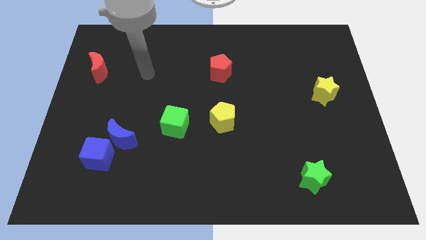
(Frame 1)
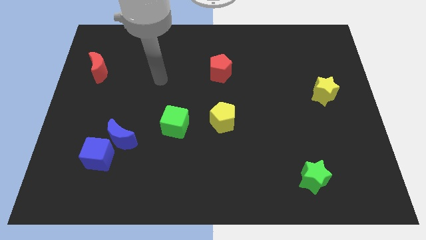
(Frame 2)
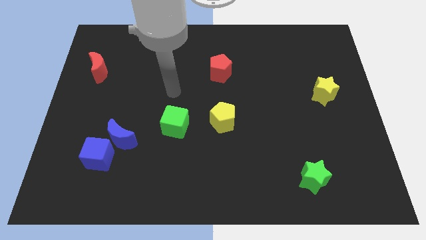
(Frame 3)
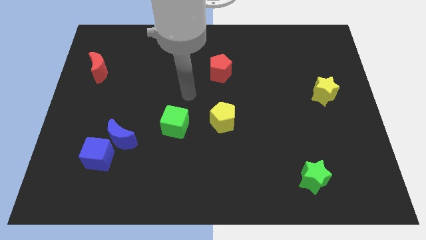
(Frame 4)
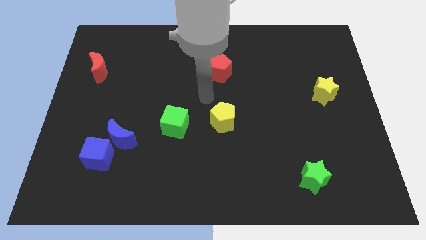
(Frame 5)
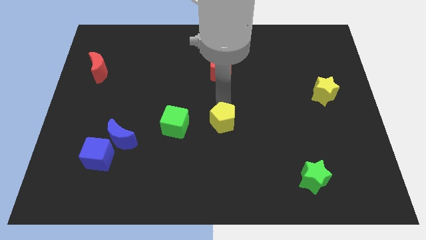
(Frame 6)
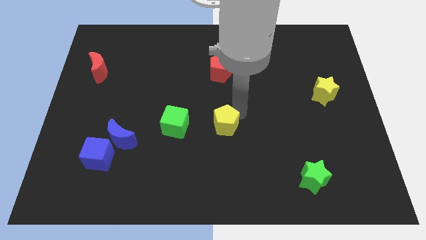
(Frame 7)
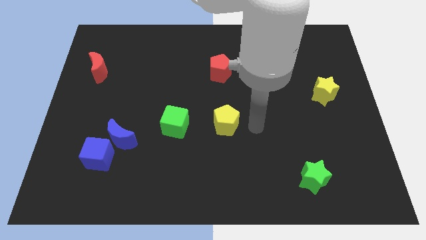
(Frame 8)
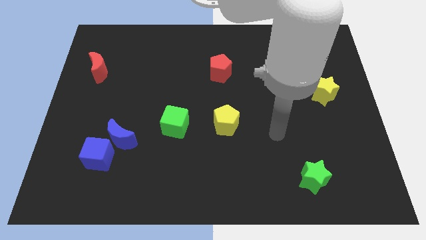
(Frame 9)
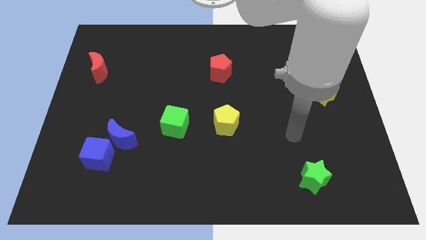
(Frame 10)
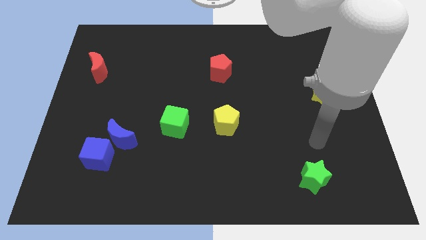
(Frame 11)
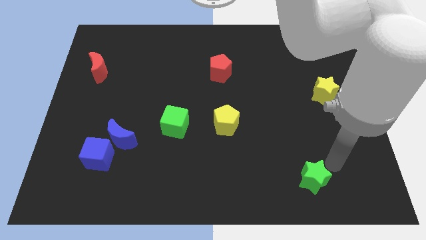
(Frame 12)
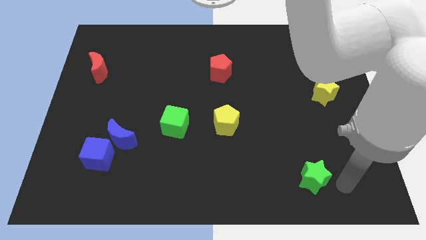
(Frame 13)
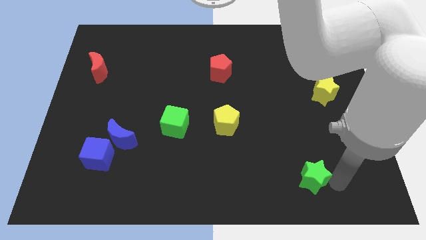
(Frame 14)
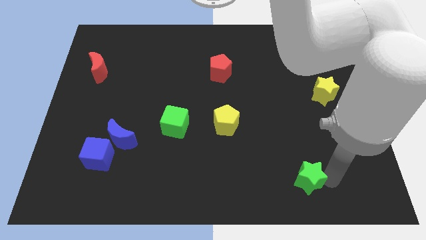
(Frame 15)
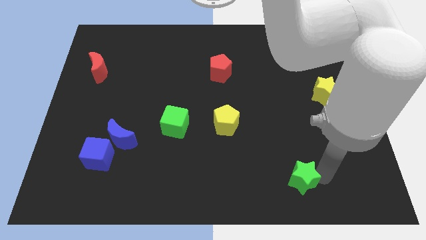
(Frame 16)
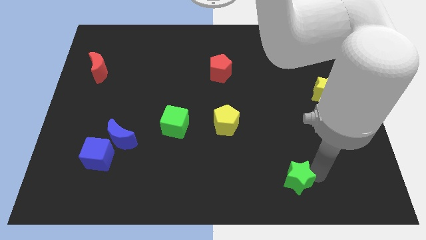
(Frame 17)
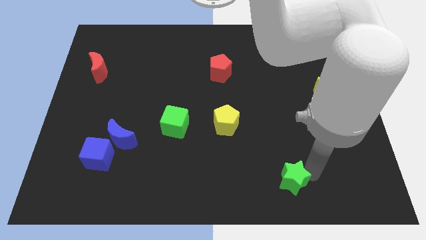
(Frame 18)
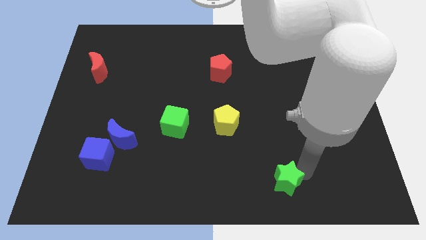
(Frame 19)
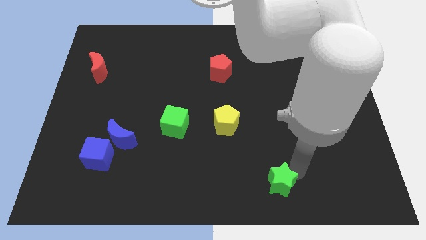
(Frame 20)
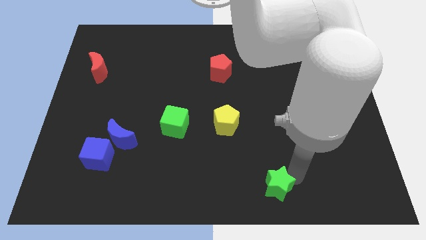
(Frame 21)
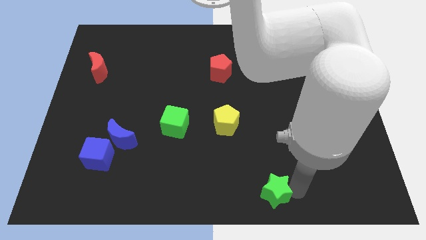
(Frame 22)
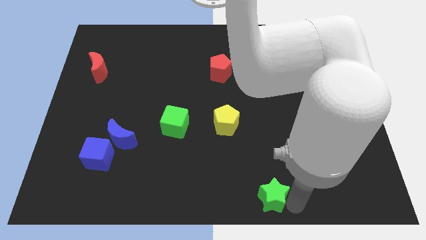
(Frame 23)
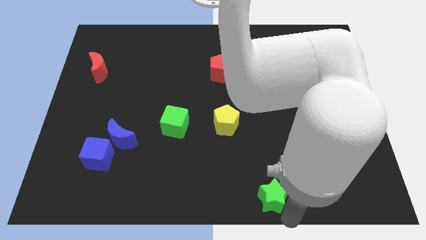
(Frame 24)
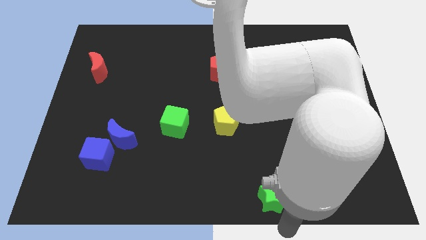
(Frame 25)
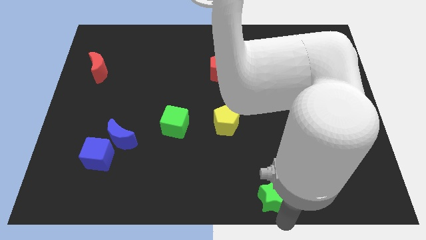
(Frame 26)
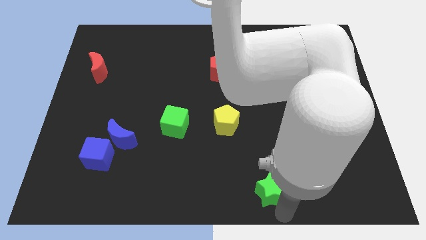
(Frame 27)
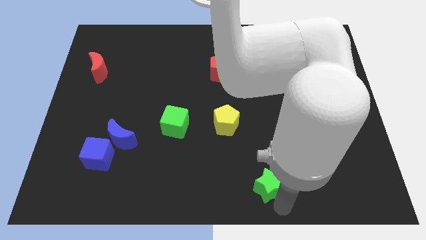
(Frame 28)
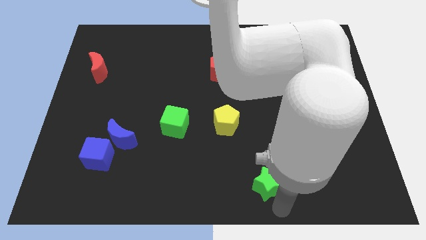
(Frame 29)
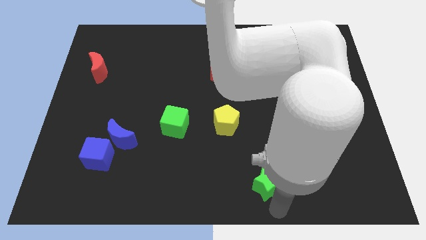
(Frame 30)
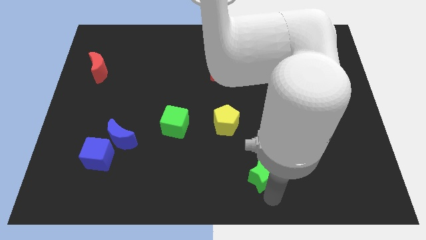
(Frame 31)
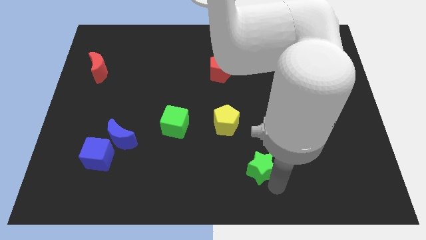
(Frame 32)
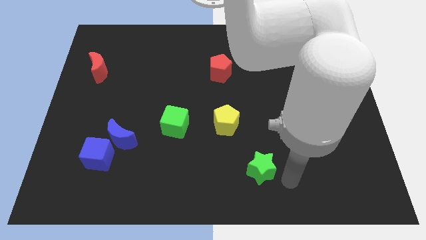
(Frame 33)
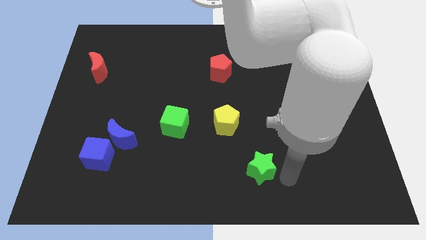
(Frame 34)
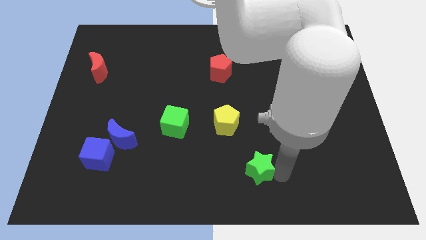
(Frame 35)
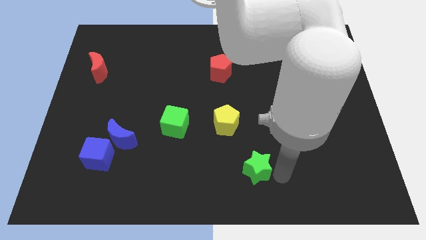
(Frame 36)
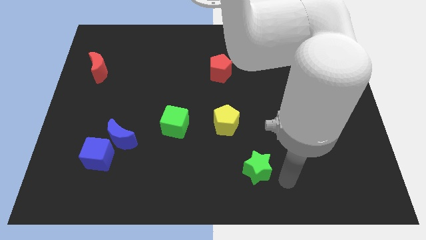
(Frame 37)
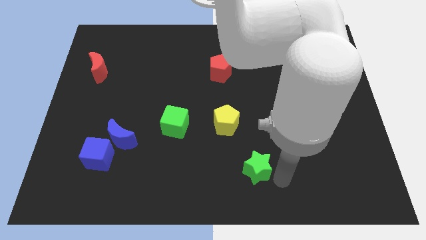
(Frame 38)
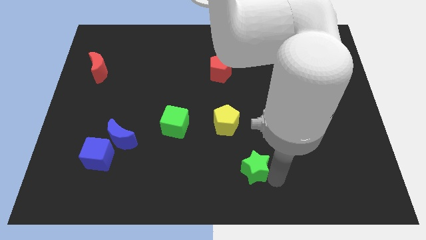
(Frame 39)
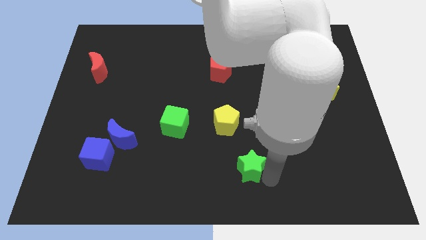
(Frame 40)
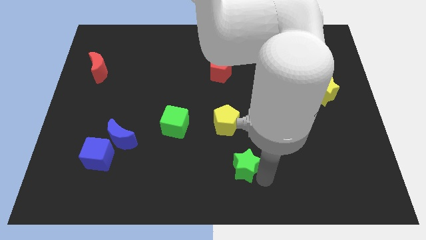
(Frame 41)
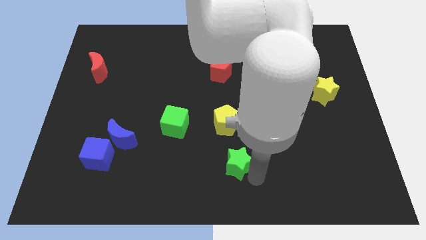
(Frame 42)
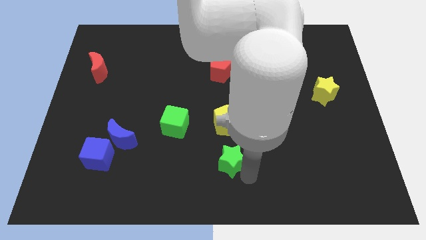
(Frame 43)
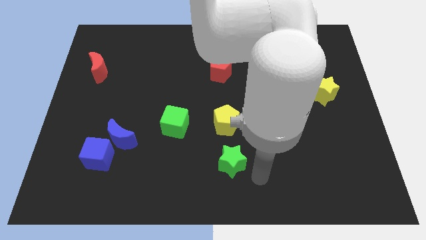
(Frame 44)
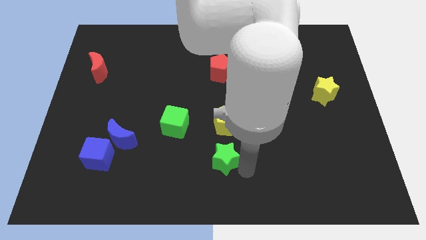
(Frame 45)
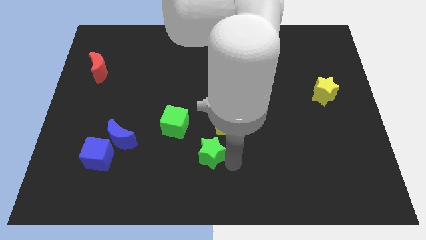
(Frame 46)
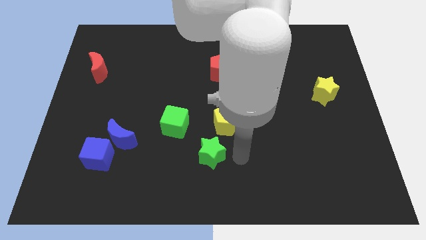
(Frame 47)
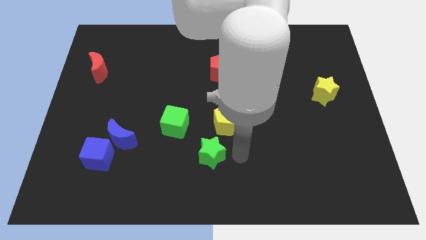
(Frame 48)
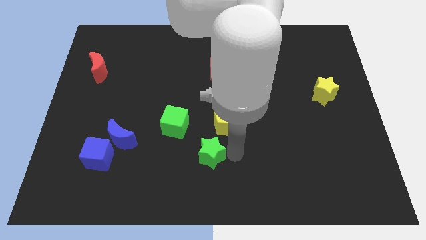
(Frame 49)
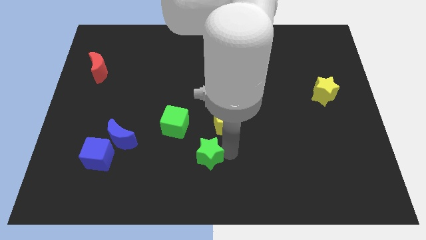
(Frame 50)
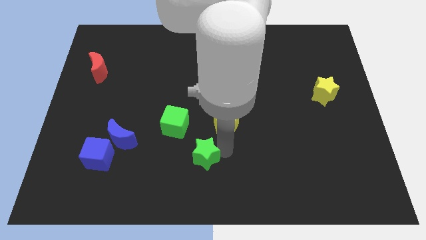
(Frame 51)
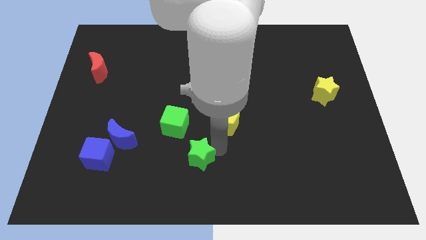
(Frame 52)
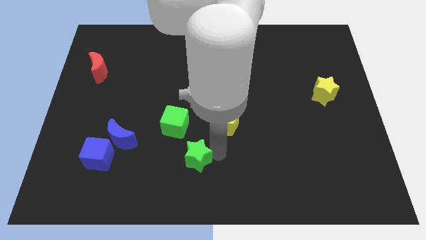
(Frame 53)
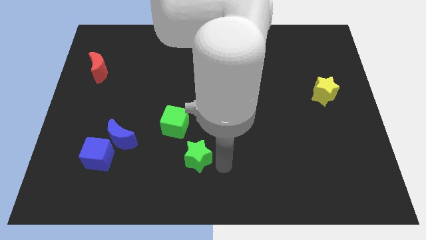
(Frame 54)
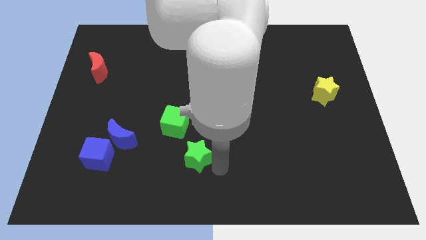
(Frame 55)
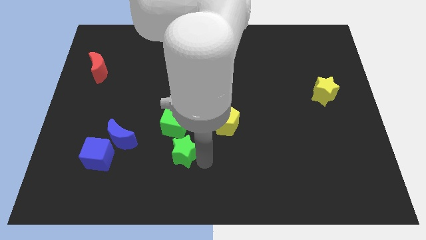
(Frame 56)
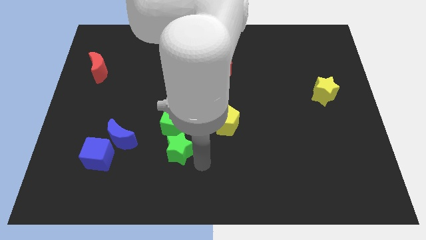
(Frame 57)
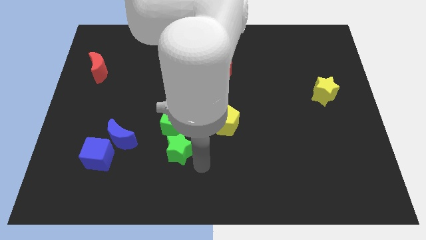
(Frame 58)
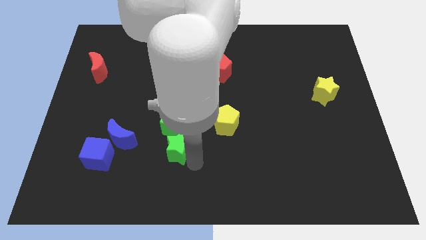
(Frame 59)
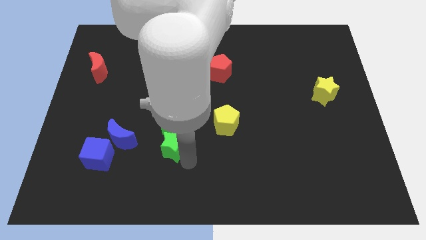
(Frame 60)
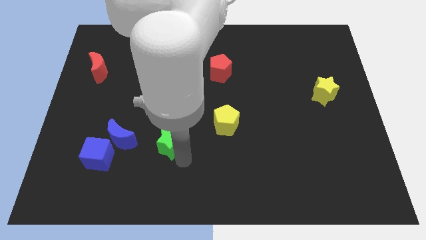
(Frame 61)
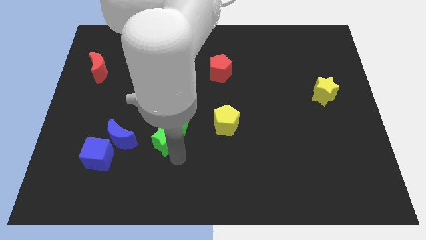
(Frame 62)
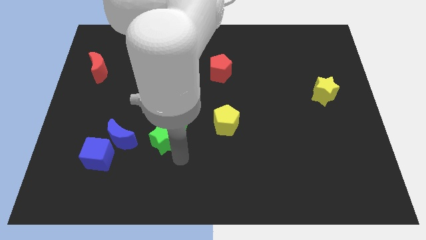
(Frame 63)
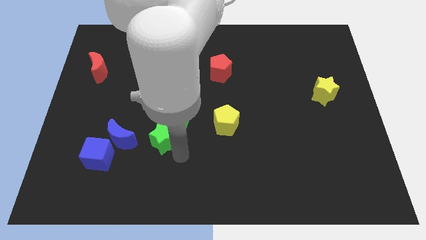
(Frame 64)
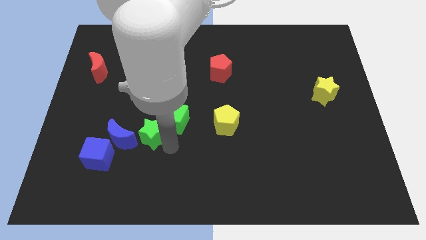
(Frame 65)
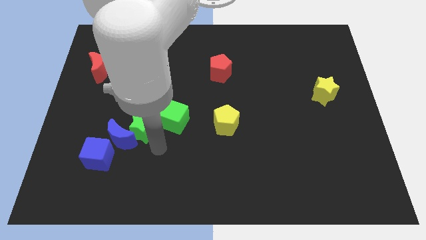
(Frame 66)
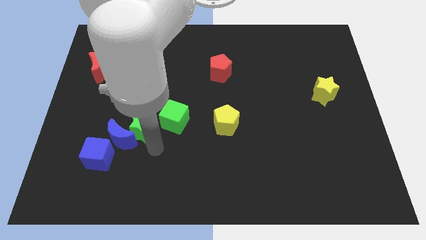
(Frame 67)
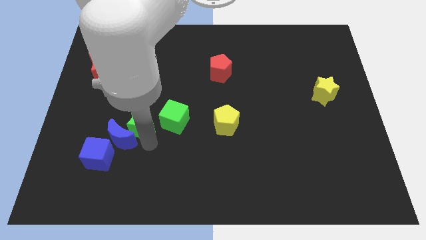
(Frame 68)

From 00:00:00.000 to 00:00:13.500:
move the green star to the top of the blue moon

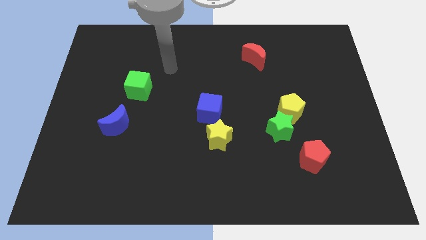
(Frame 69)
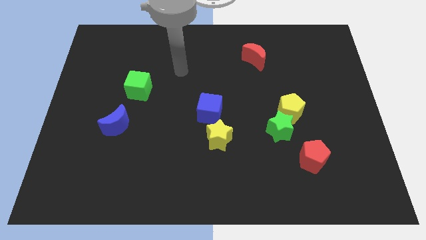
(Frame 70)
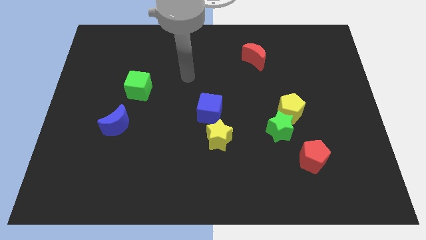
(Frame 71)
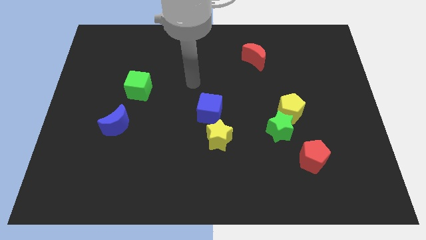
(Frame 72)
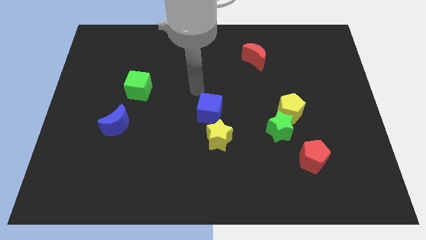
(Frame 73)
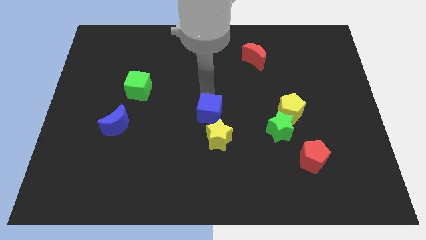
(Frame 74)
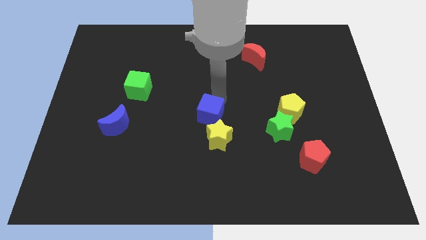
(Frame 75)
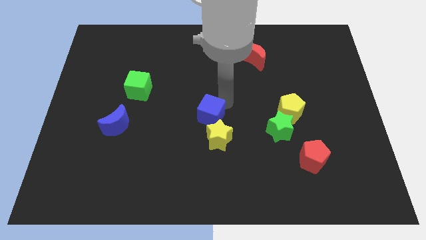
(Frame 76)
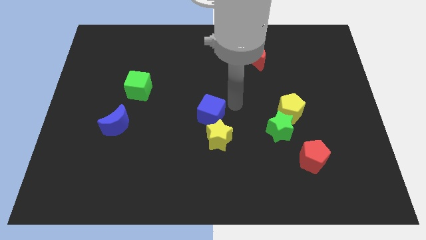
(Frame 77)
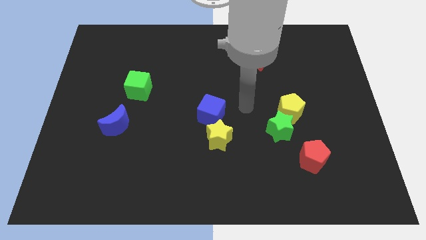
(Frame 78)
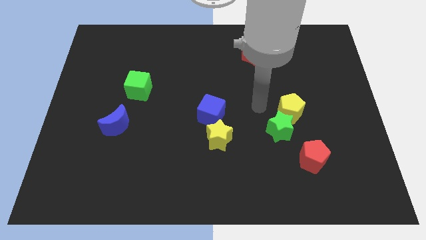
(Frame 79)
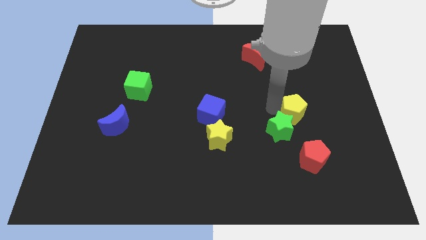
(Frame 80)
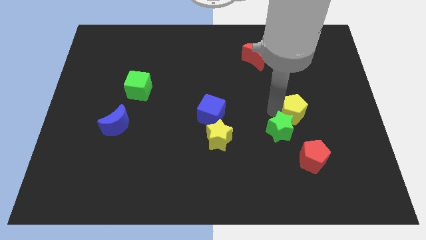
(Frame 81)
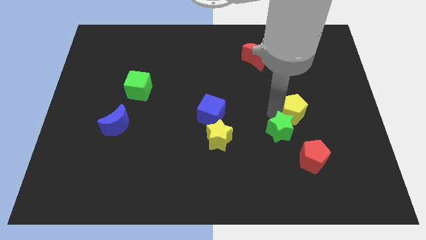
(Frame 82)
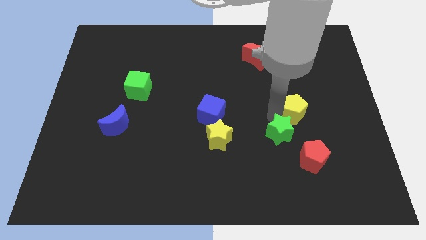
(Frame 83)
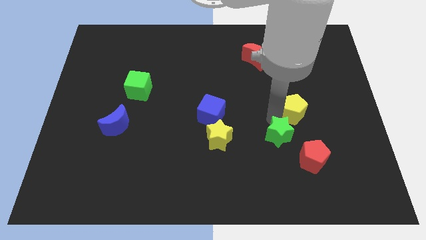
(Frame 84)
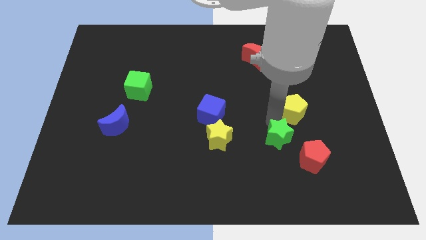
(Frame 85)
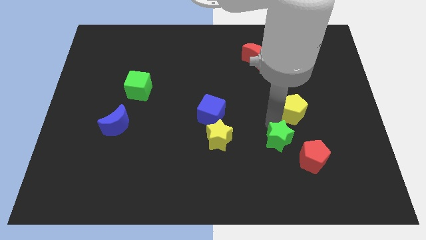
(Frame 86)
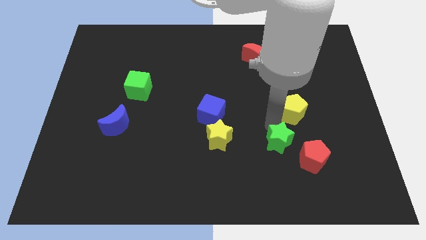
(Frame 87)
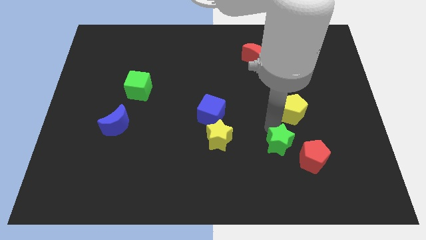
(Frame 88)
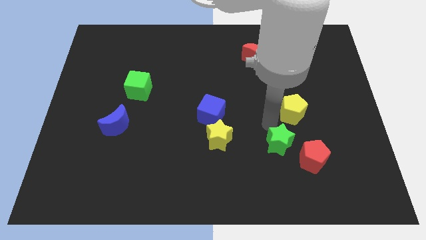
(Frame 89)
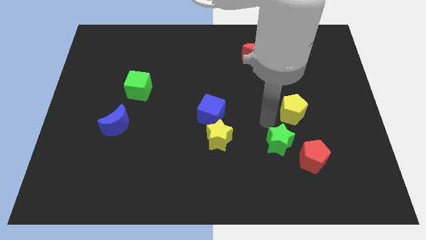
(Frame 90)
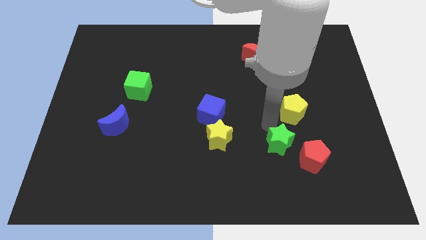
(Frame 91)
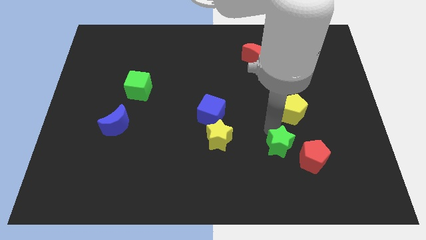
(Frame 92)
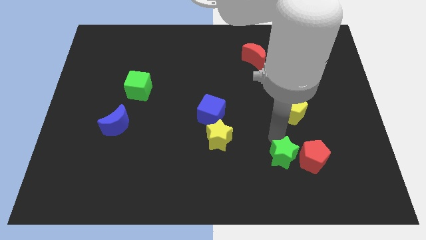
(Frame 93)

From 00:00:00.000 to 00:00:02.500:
slide the green star diagonally down and to the left of the red pentagon
